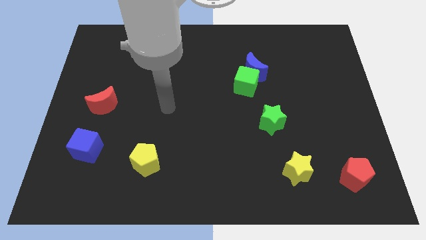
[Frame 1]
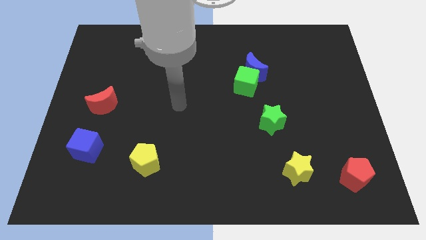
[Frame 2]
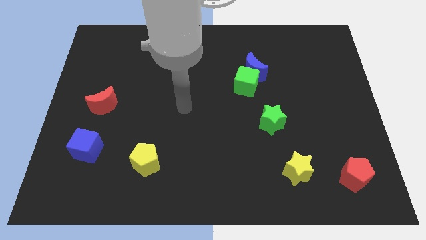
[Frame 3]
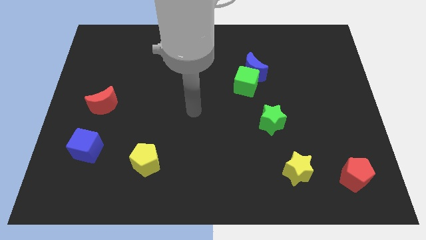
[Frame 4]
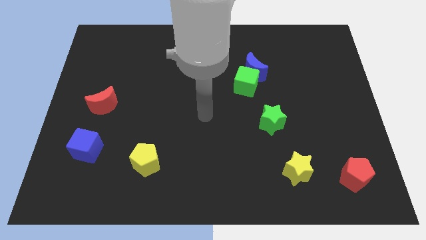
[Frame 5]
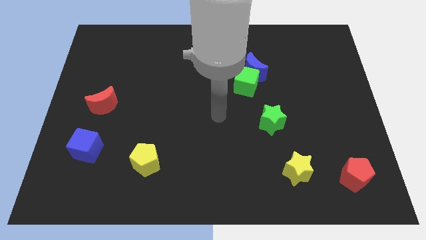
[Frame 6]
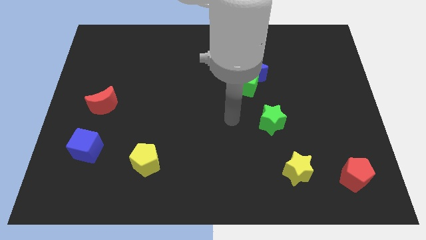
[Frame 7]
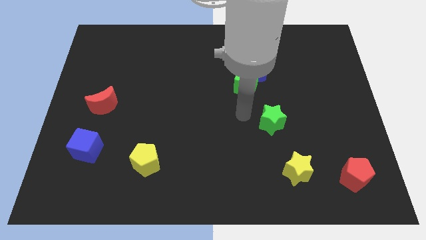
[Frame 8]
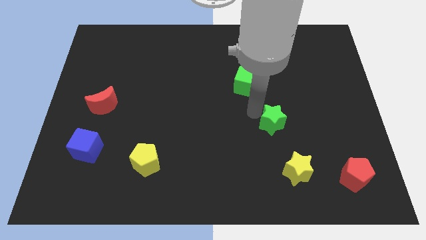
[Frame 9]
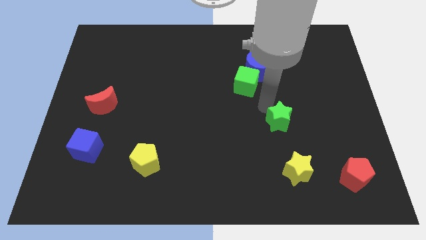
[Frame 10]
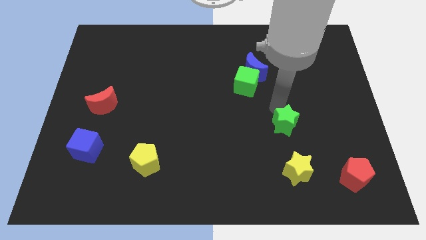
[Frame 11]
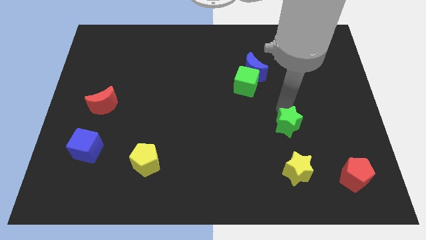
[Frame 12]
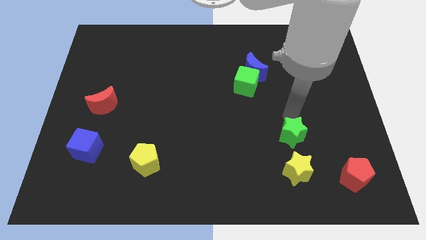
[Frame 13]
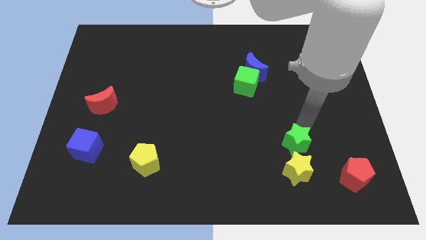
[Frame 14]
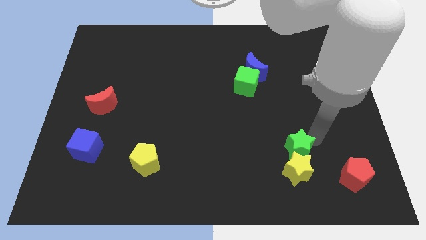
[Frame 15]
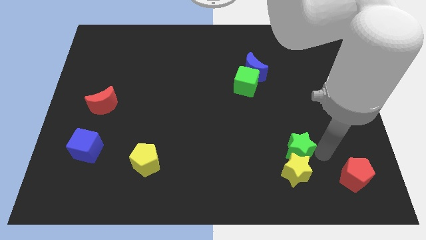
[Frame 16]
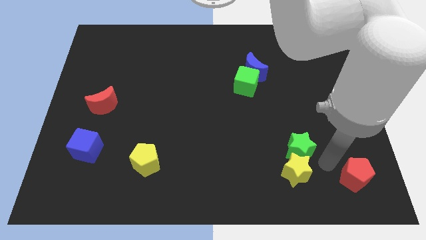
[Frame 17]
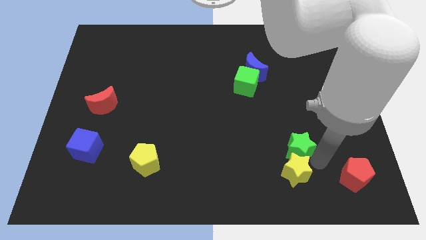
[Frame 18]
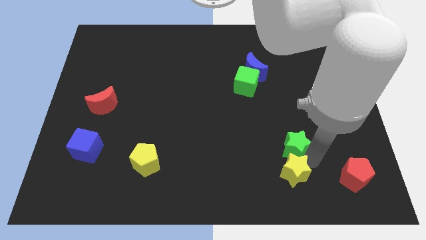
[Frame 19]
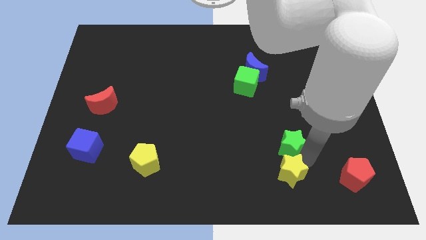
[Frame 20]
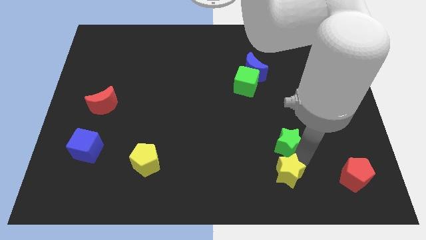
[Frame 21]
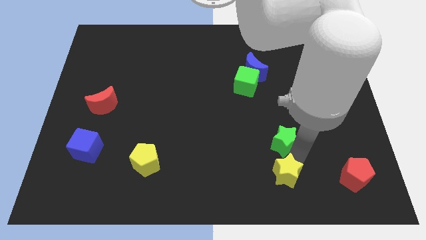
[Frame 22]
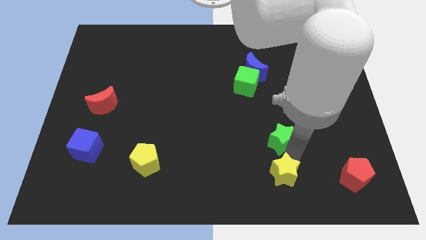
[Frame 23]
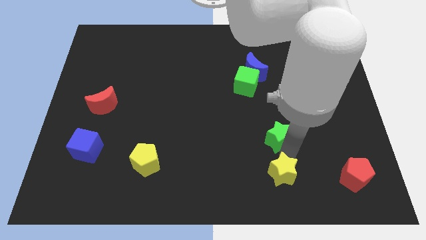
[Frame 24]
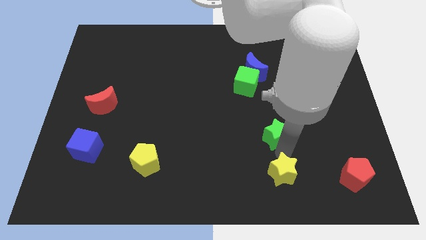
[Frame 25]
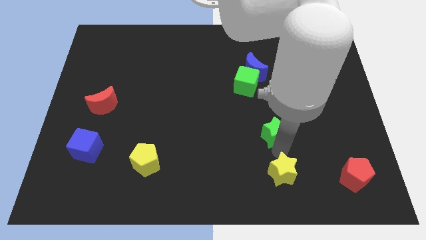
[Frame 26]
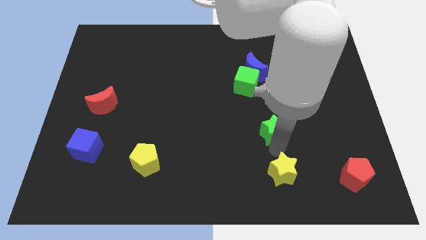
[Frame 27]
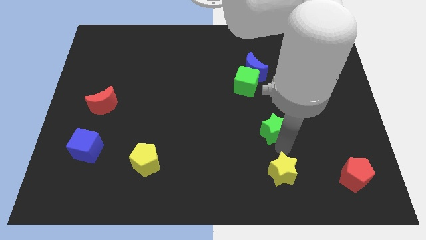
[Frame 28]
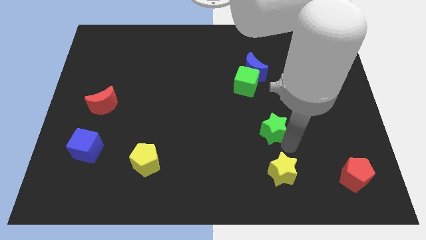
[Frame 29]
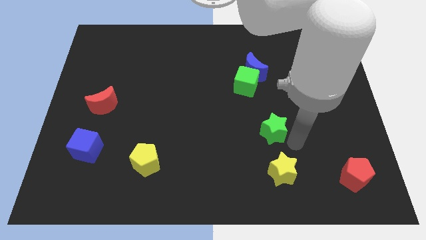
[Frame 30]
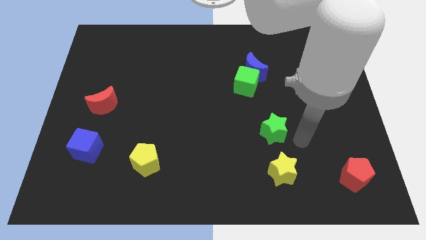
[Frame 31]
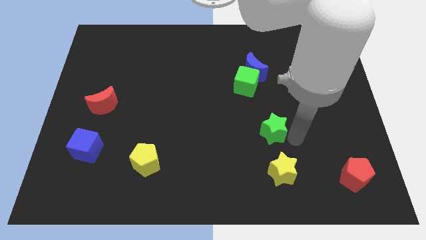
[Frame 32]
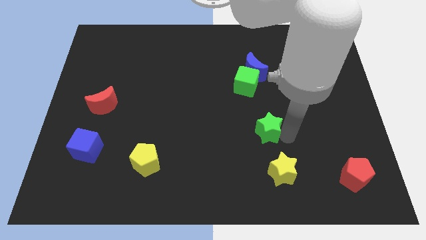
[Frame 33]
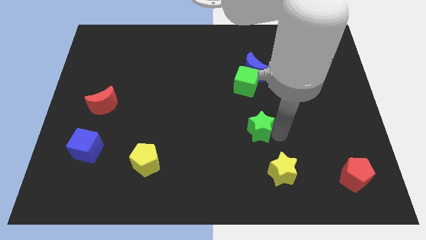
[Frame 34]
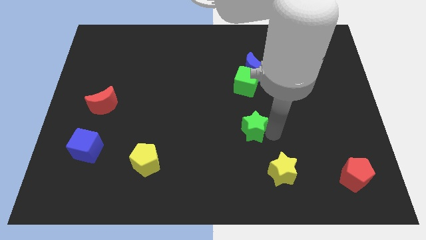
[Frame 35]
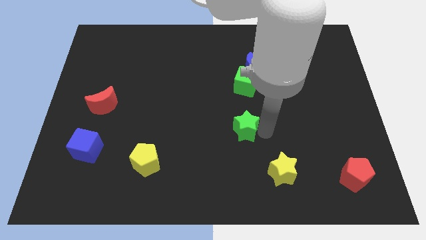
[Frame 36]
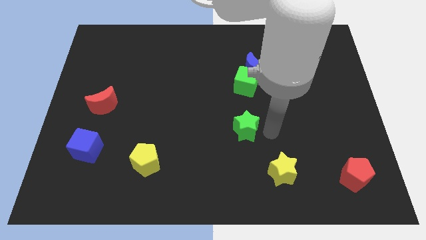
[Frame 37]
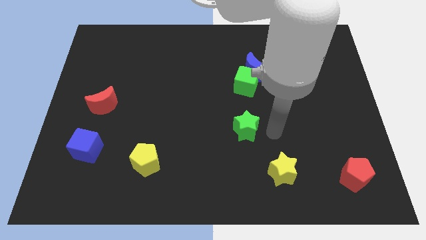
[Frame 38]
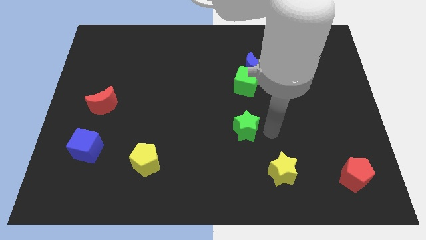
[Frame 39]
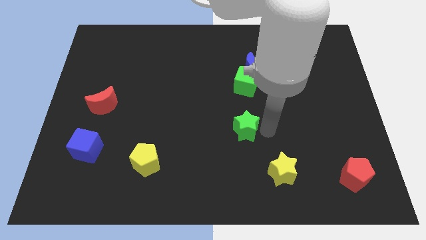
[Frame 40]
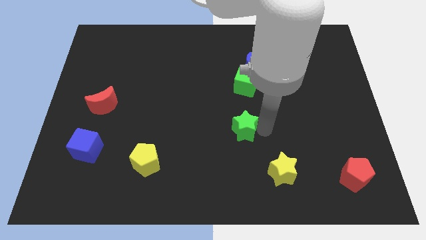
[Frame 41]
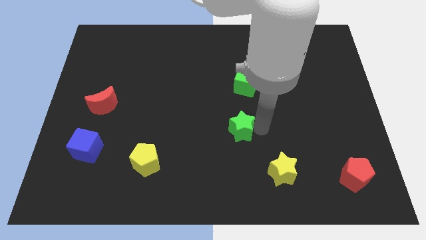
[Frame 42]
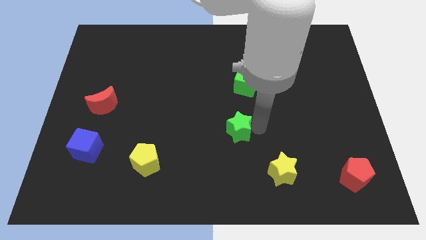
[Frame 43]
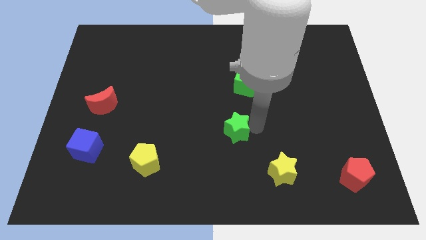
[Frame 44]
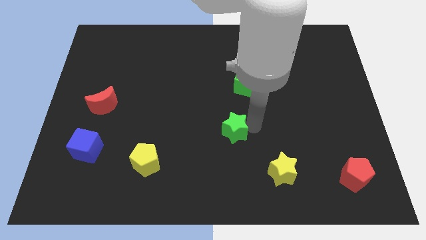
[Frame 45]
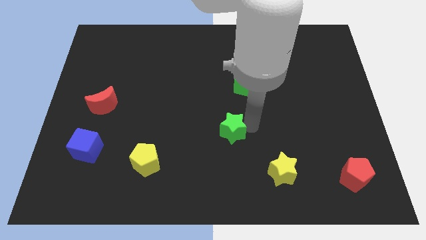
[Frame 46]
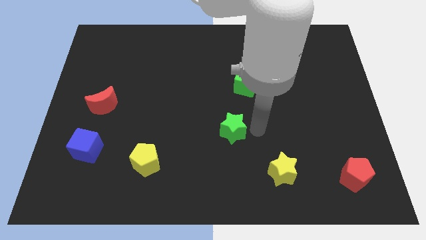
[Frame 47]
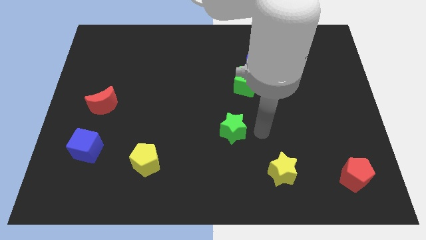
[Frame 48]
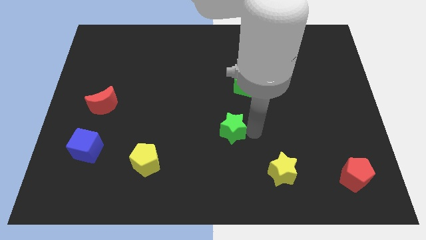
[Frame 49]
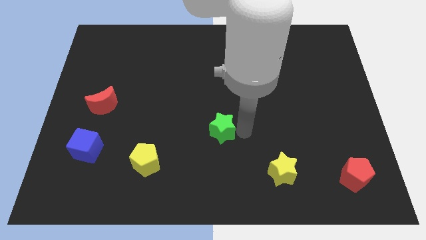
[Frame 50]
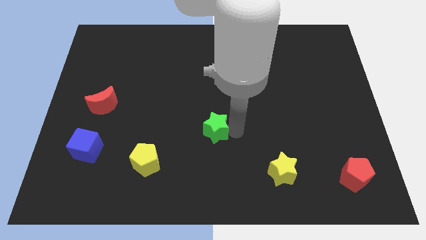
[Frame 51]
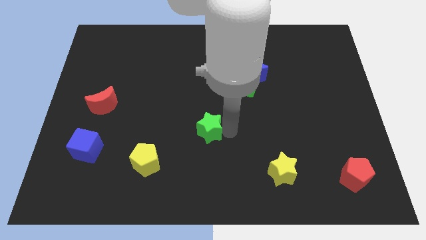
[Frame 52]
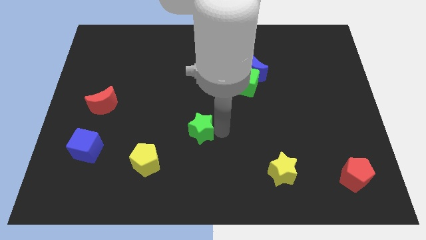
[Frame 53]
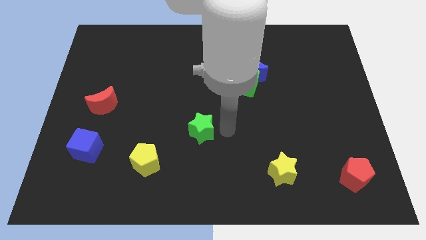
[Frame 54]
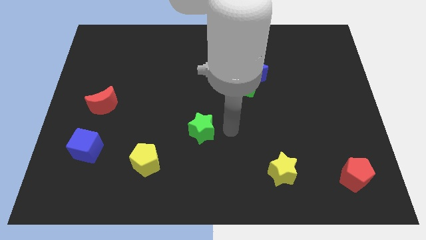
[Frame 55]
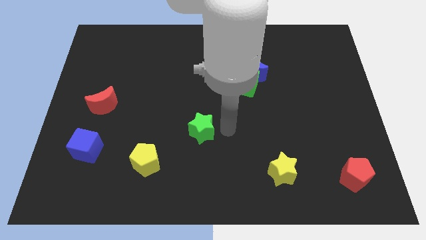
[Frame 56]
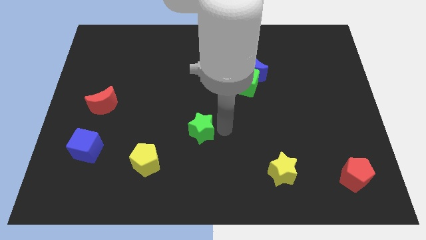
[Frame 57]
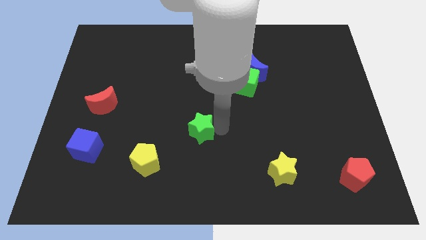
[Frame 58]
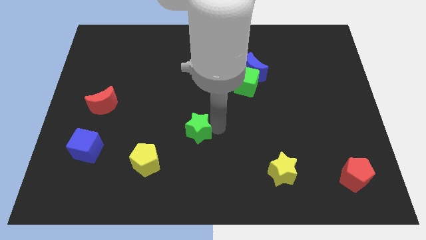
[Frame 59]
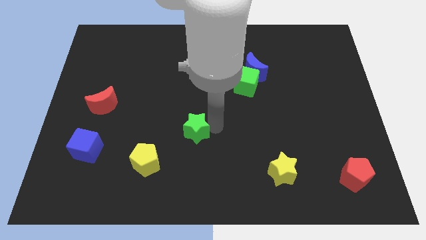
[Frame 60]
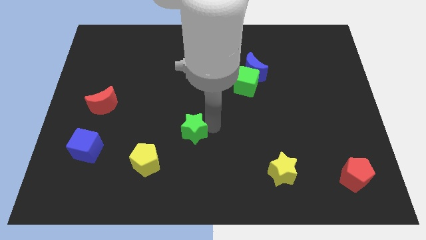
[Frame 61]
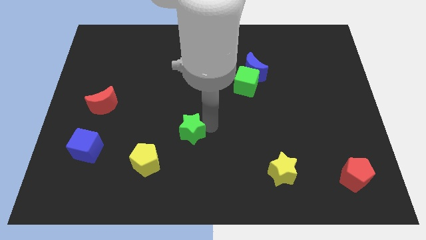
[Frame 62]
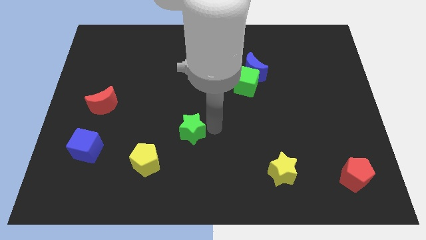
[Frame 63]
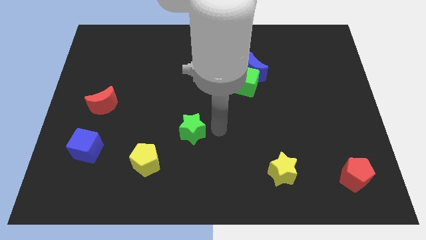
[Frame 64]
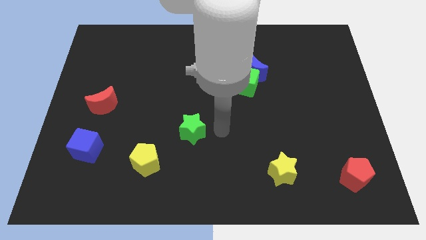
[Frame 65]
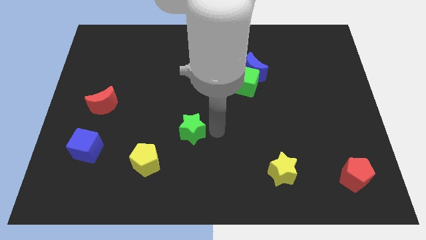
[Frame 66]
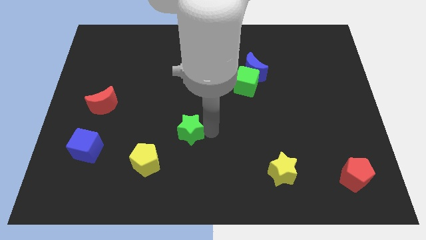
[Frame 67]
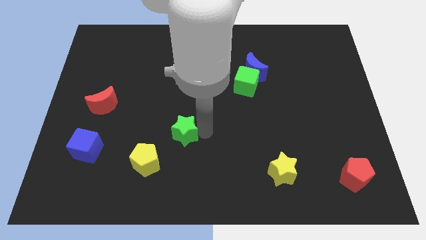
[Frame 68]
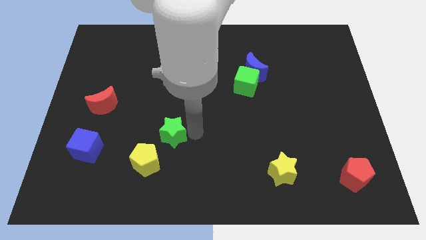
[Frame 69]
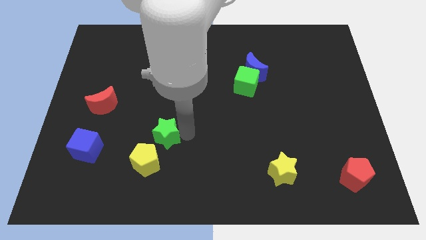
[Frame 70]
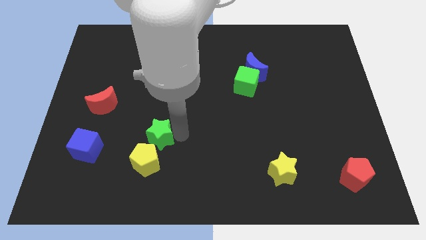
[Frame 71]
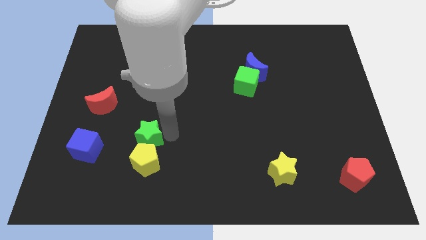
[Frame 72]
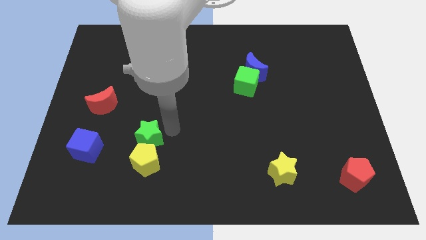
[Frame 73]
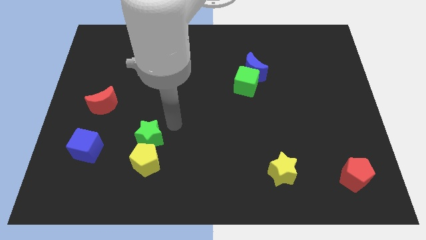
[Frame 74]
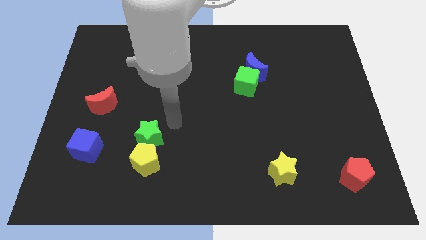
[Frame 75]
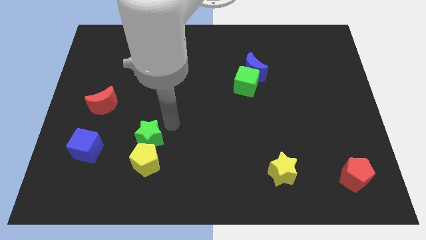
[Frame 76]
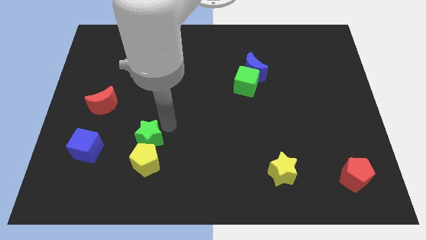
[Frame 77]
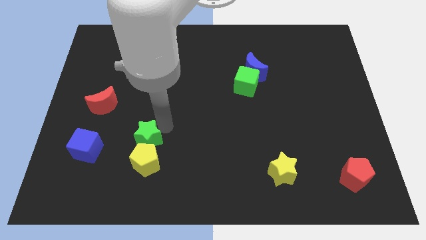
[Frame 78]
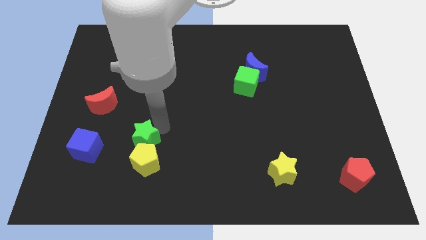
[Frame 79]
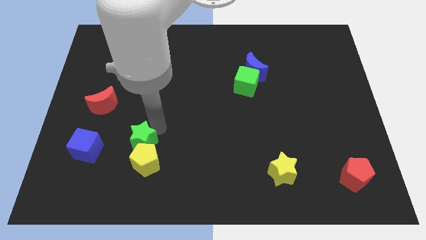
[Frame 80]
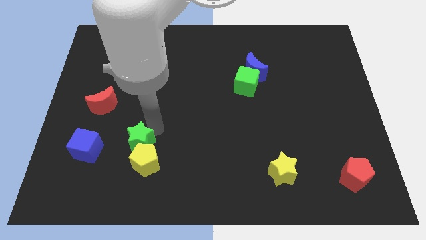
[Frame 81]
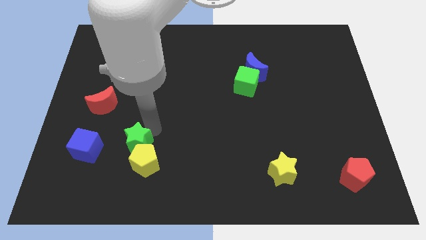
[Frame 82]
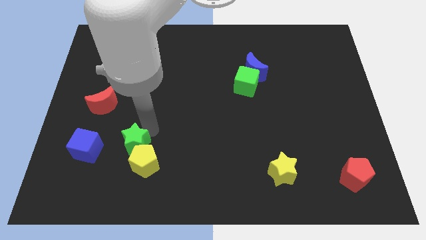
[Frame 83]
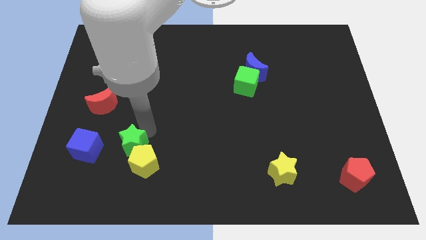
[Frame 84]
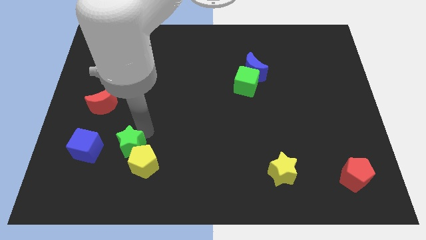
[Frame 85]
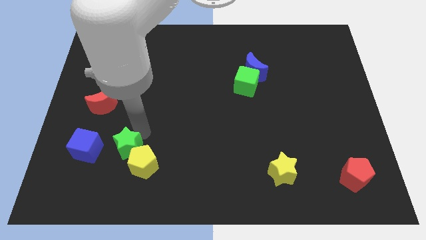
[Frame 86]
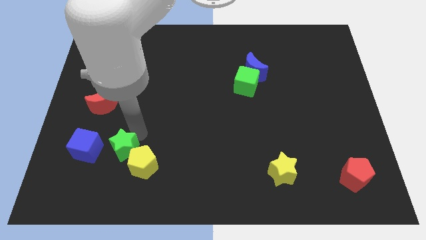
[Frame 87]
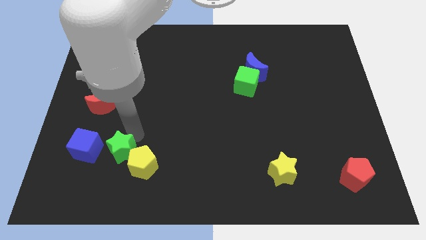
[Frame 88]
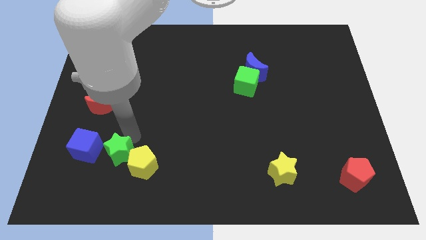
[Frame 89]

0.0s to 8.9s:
push the green star to the bottom right side of the blue cube
